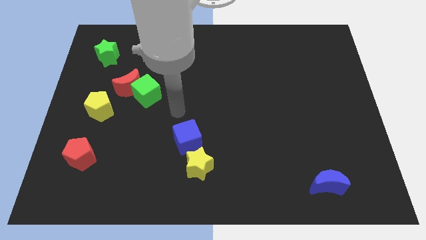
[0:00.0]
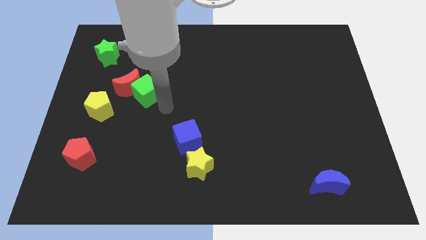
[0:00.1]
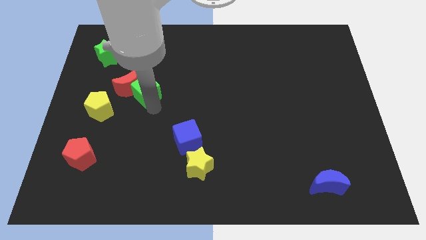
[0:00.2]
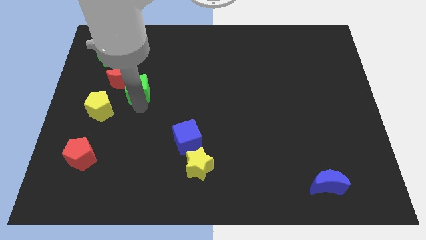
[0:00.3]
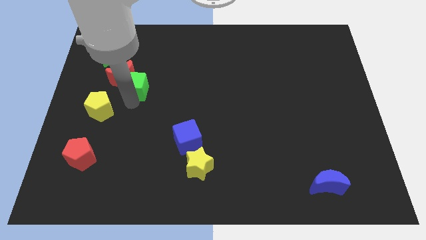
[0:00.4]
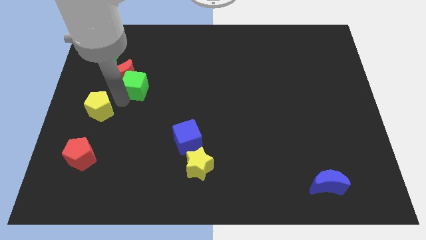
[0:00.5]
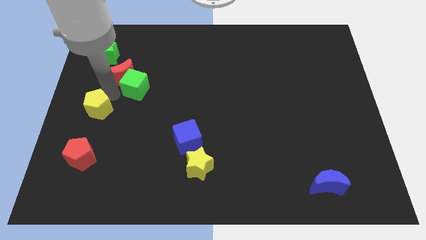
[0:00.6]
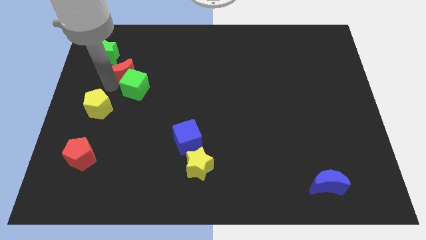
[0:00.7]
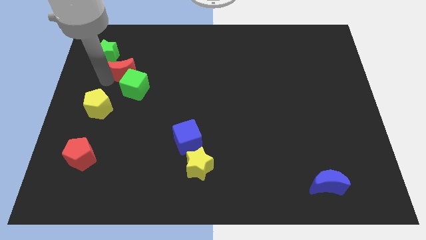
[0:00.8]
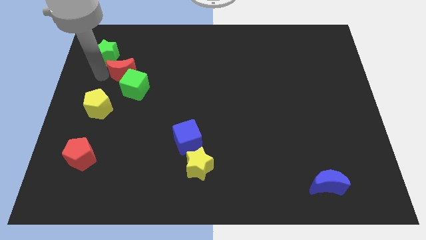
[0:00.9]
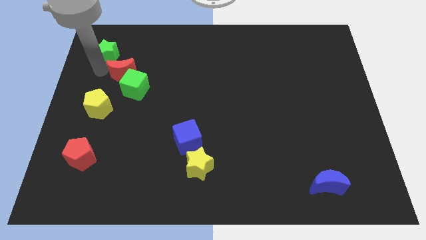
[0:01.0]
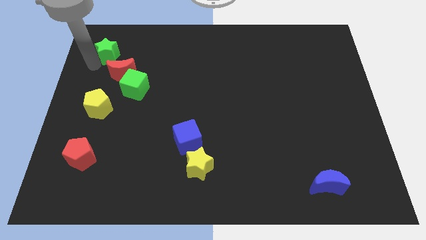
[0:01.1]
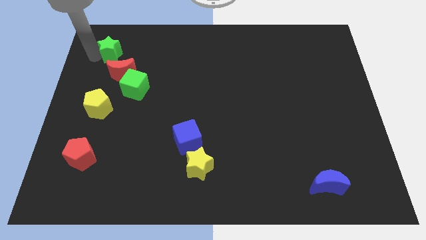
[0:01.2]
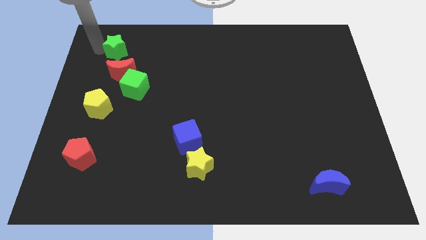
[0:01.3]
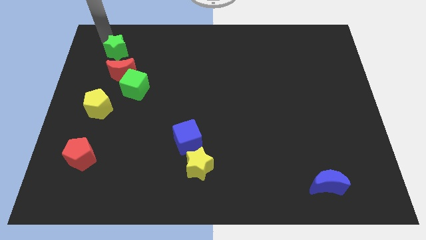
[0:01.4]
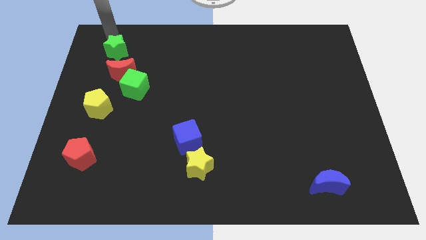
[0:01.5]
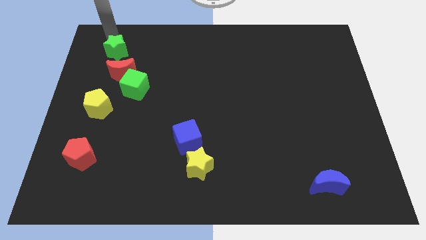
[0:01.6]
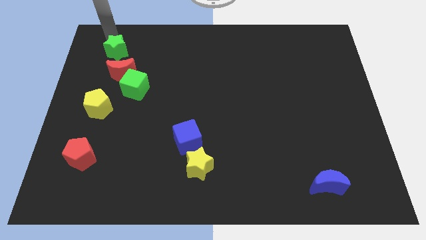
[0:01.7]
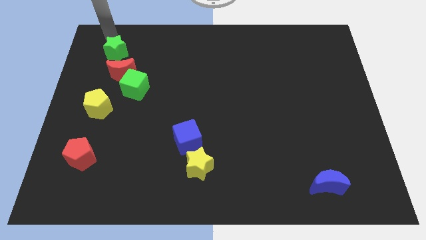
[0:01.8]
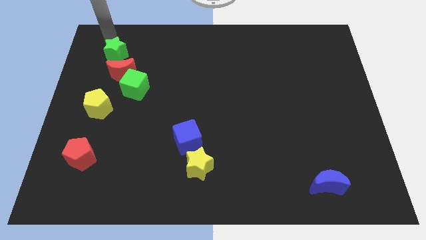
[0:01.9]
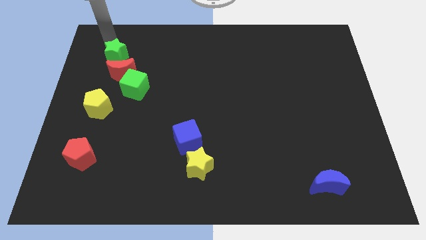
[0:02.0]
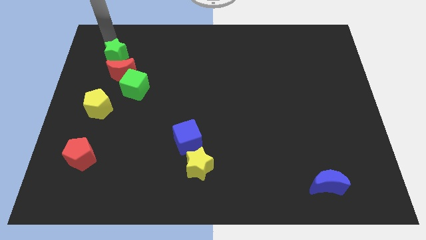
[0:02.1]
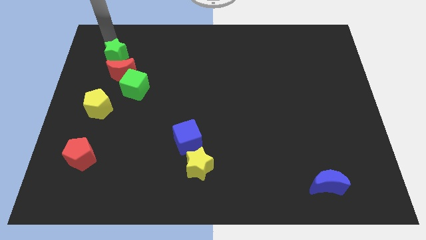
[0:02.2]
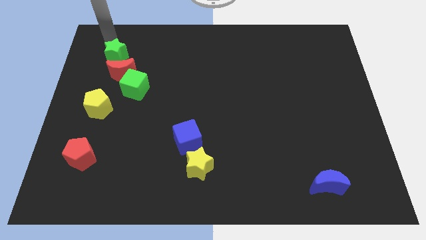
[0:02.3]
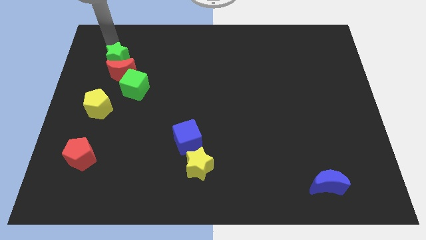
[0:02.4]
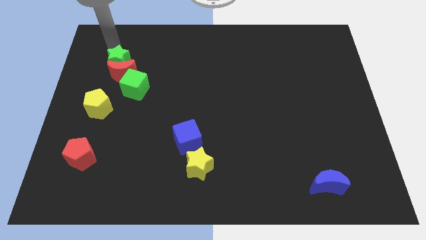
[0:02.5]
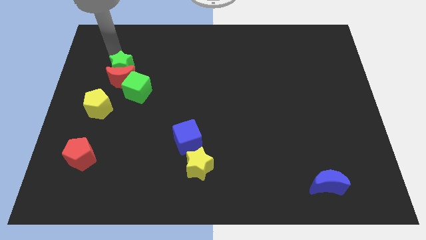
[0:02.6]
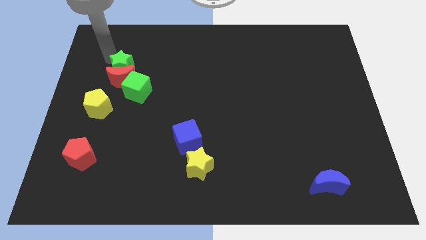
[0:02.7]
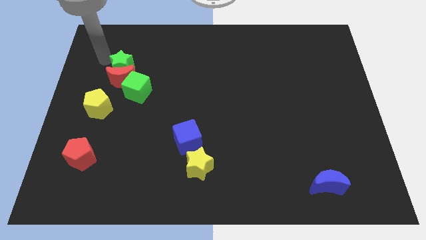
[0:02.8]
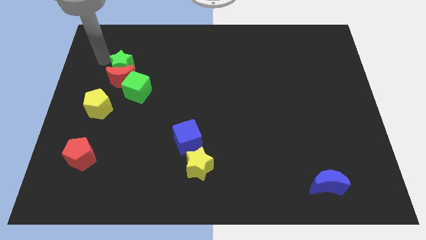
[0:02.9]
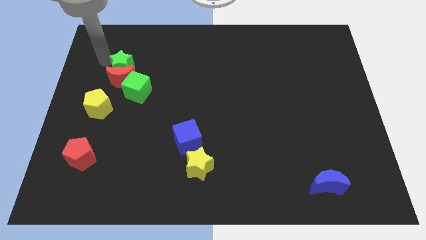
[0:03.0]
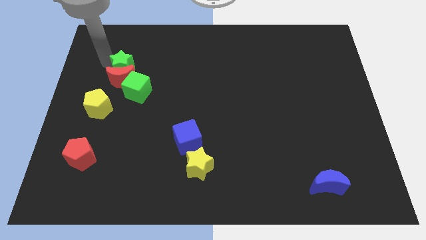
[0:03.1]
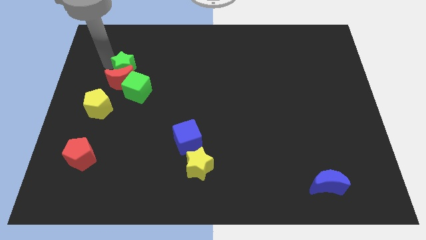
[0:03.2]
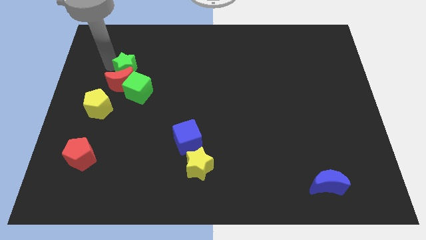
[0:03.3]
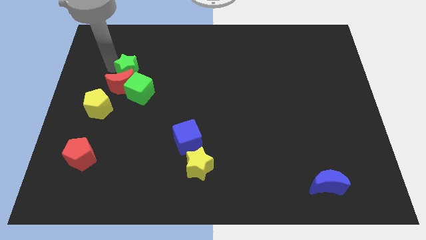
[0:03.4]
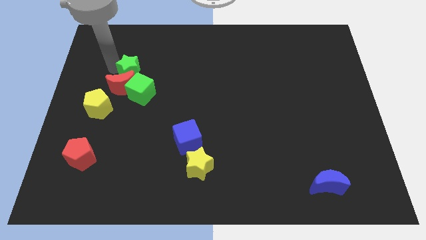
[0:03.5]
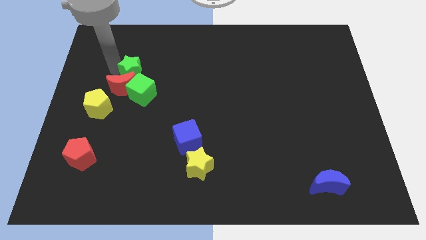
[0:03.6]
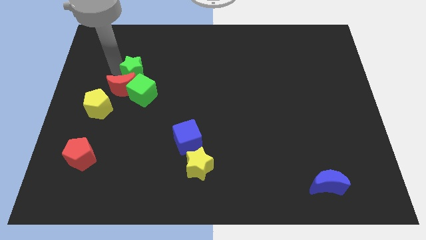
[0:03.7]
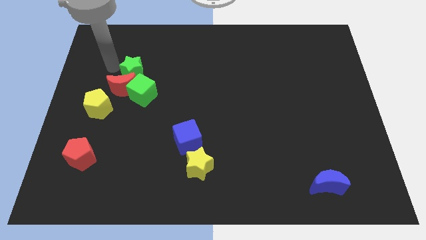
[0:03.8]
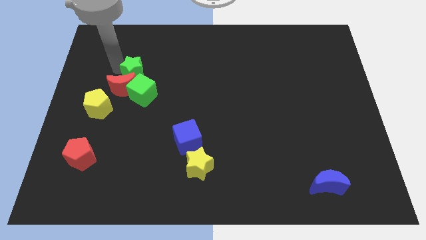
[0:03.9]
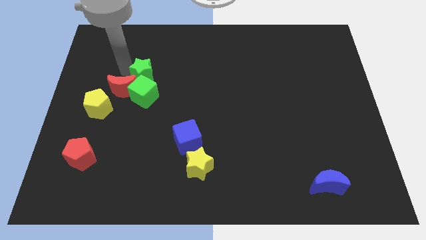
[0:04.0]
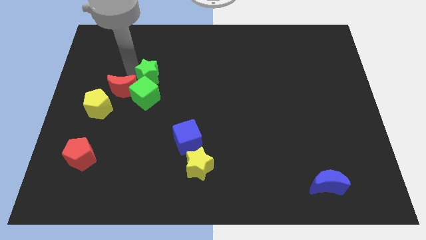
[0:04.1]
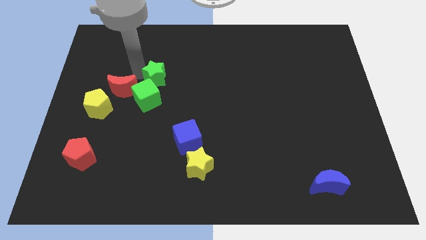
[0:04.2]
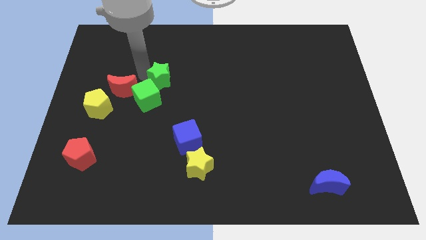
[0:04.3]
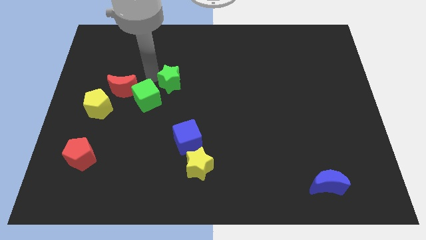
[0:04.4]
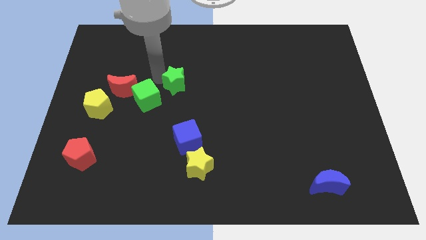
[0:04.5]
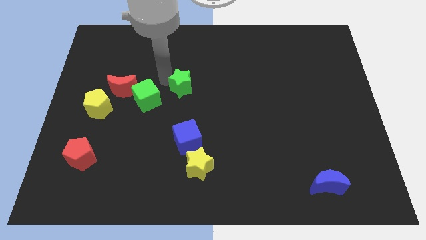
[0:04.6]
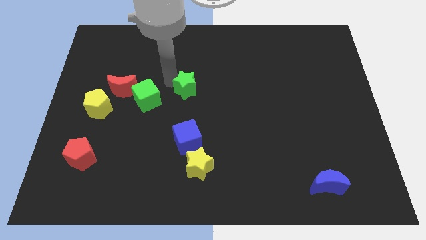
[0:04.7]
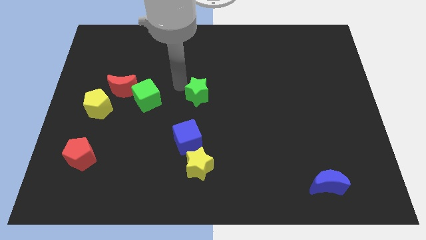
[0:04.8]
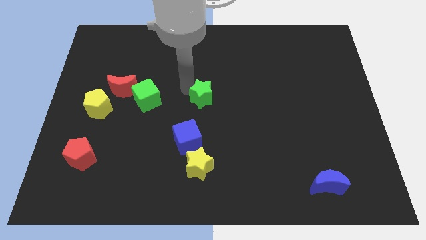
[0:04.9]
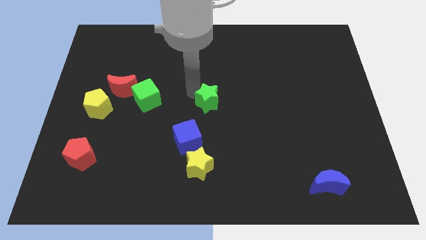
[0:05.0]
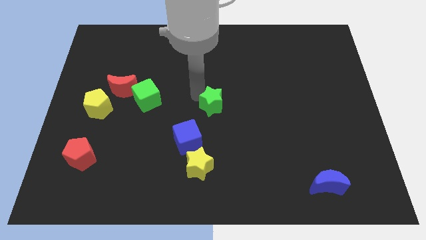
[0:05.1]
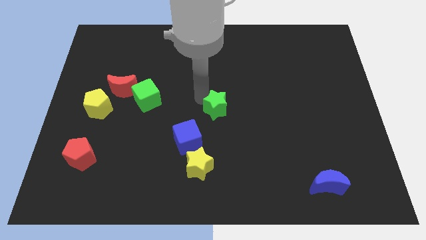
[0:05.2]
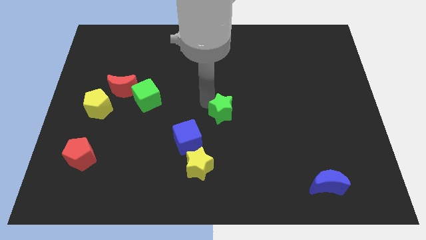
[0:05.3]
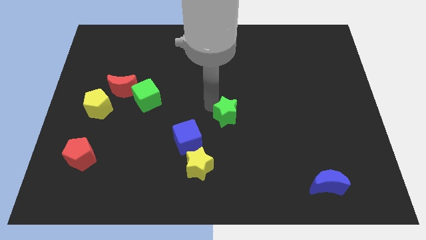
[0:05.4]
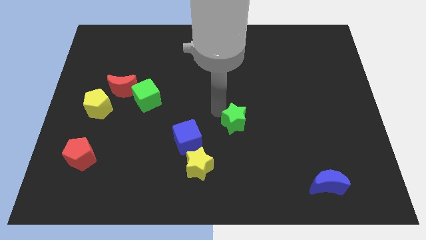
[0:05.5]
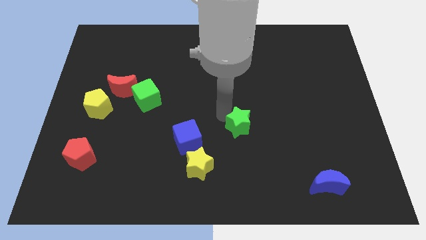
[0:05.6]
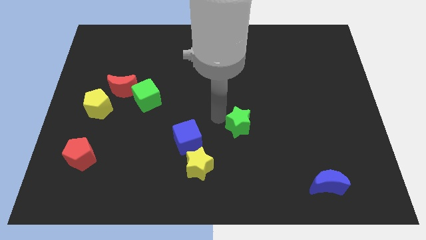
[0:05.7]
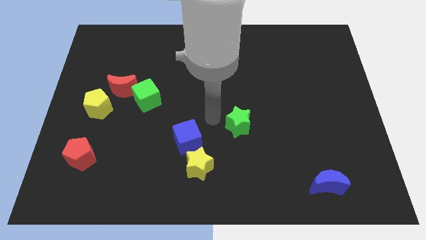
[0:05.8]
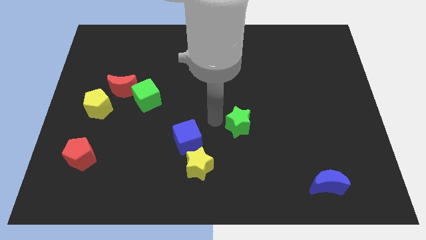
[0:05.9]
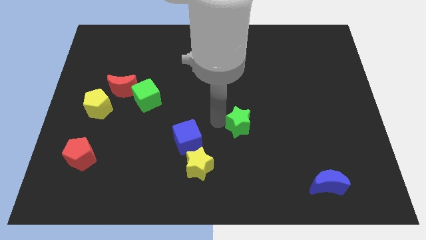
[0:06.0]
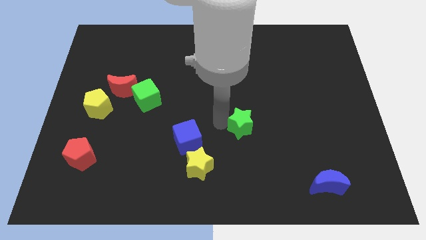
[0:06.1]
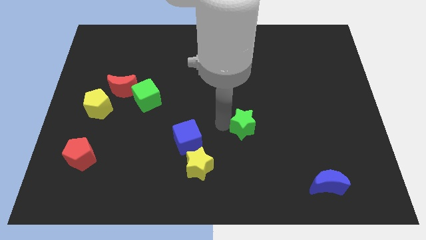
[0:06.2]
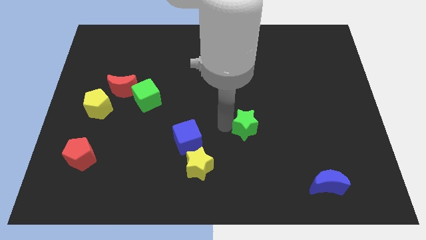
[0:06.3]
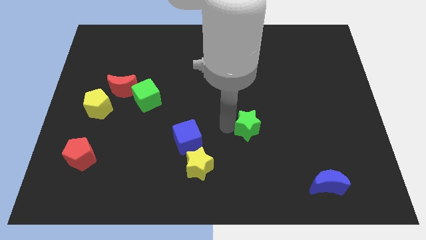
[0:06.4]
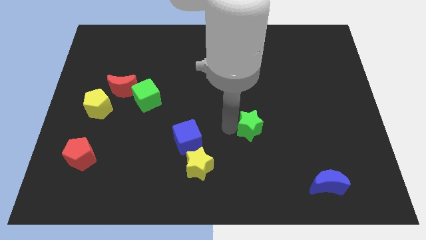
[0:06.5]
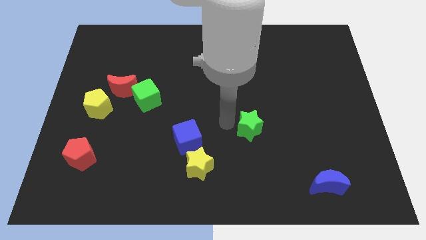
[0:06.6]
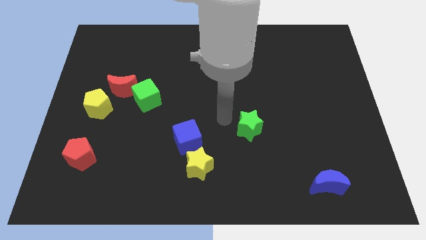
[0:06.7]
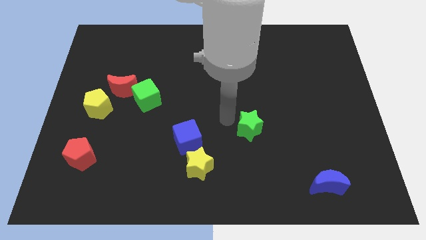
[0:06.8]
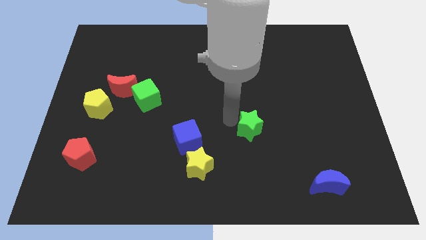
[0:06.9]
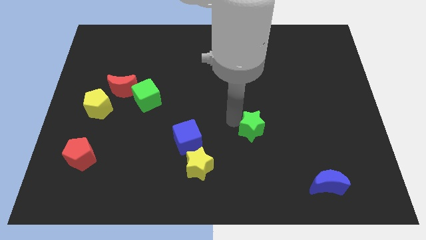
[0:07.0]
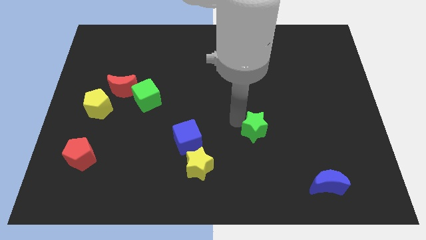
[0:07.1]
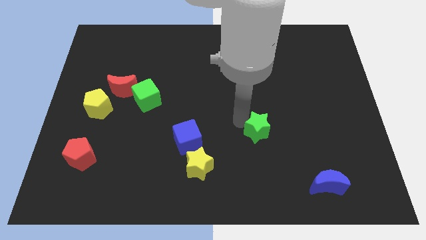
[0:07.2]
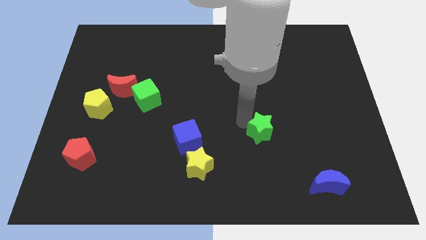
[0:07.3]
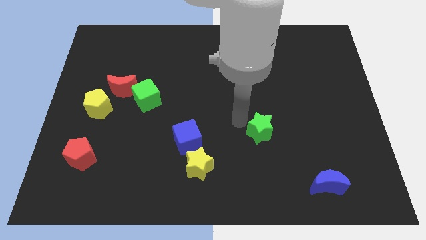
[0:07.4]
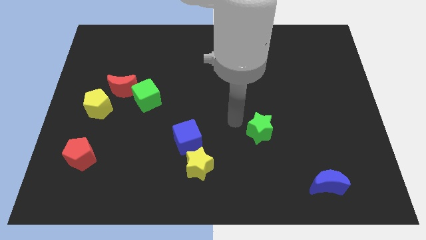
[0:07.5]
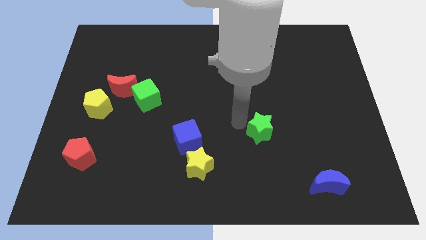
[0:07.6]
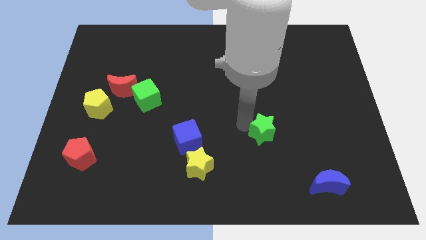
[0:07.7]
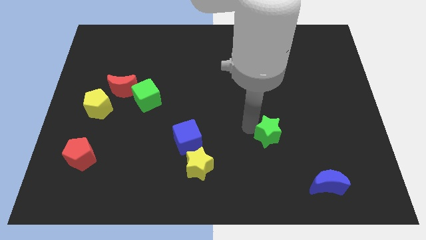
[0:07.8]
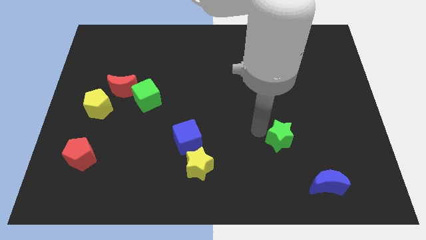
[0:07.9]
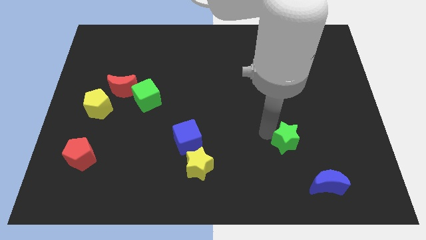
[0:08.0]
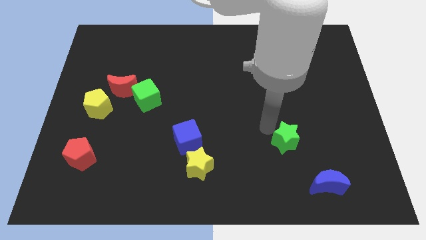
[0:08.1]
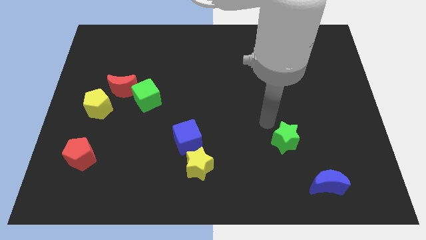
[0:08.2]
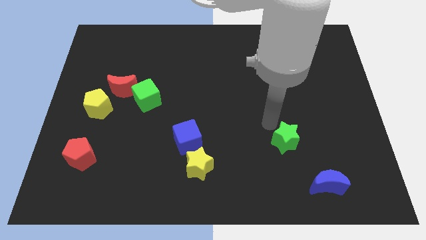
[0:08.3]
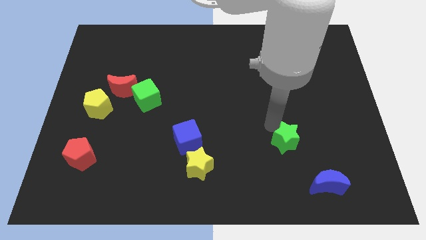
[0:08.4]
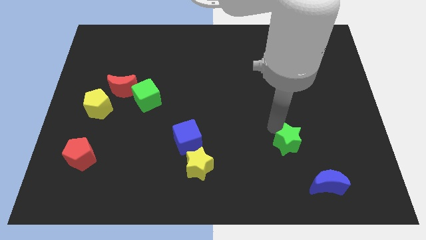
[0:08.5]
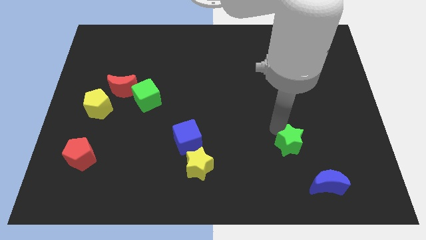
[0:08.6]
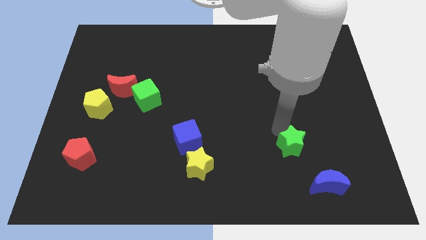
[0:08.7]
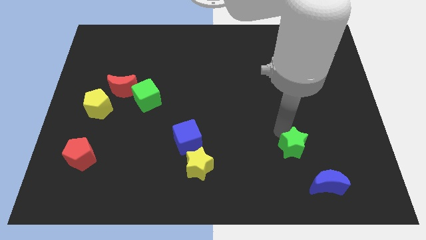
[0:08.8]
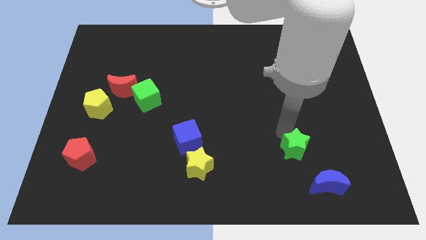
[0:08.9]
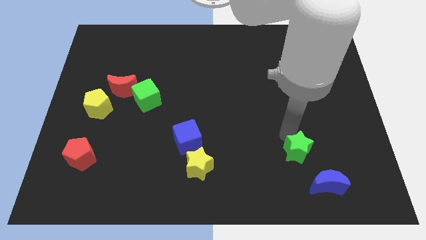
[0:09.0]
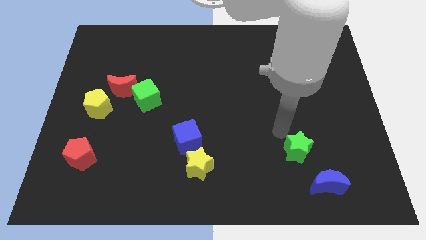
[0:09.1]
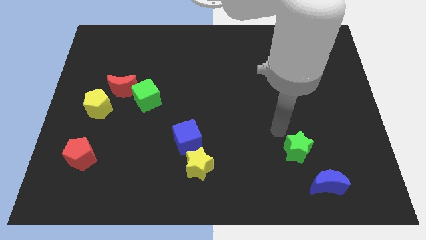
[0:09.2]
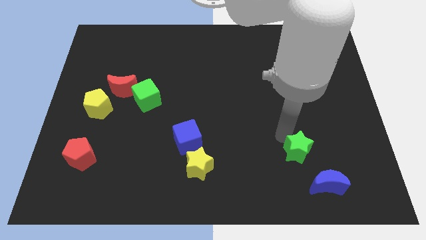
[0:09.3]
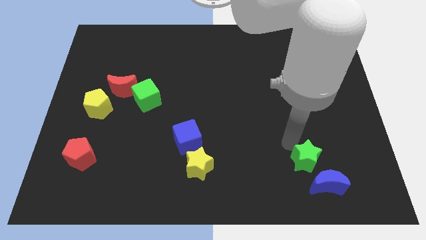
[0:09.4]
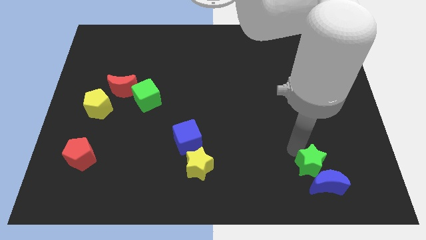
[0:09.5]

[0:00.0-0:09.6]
slide the green star next to the blue moon
